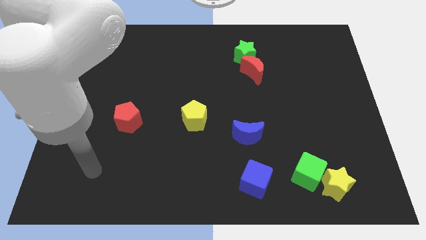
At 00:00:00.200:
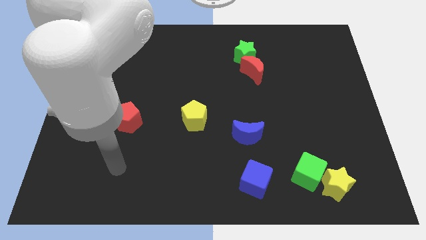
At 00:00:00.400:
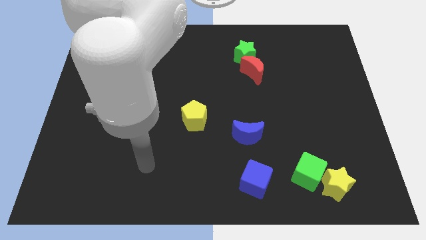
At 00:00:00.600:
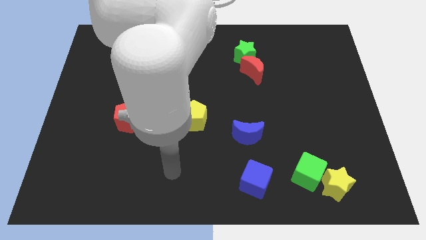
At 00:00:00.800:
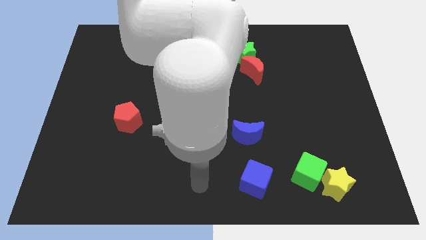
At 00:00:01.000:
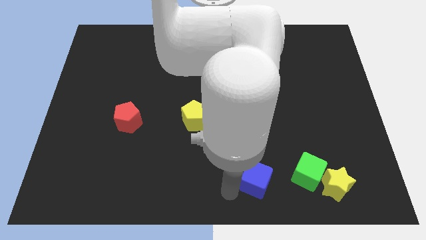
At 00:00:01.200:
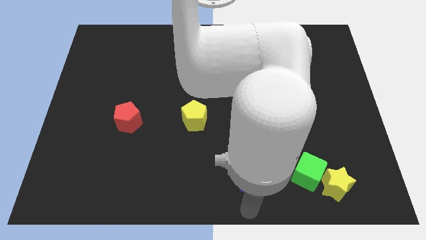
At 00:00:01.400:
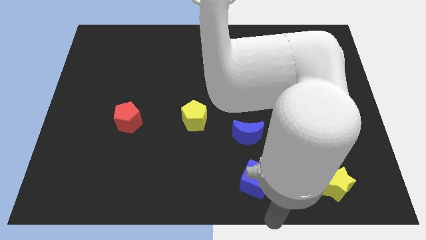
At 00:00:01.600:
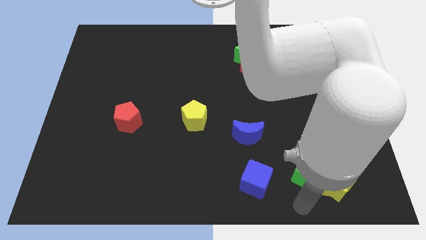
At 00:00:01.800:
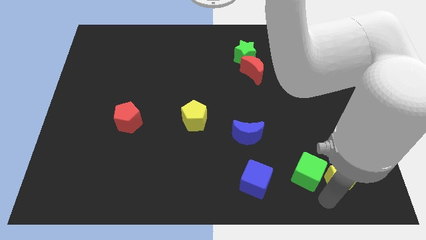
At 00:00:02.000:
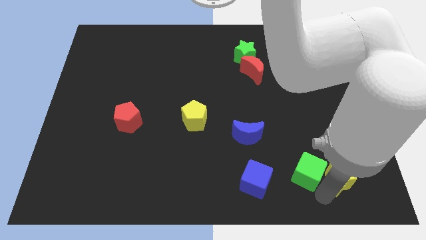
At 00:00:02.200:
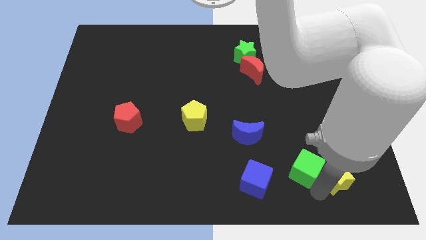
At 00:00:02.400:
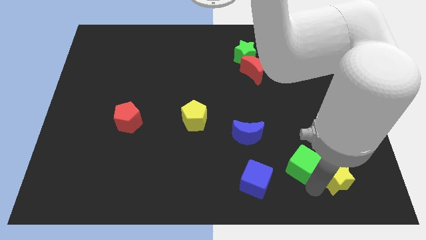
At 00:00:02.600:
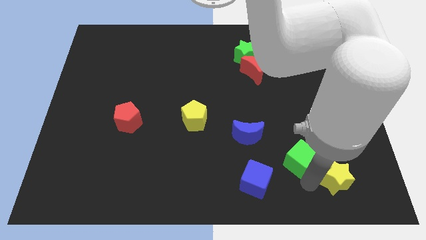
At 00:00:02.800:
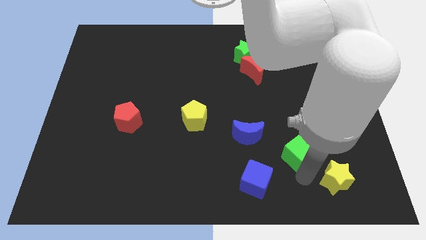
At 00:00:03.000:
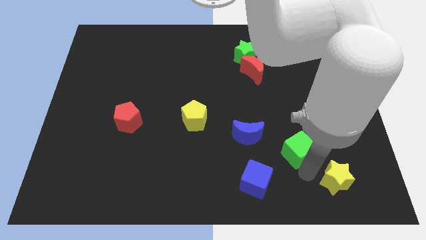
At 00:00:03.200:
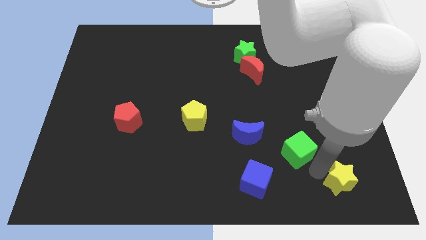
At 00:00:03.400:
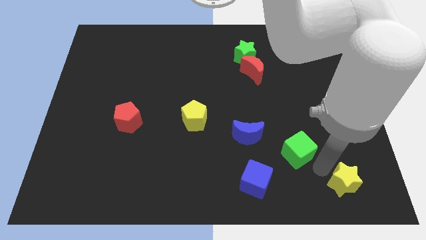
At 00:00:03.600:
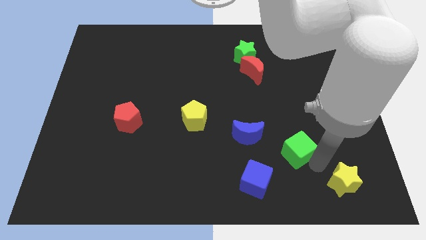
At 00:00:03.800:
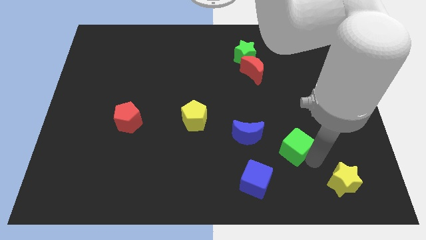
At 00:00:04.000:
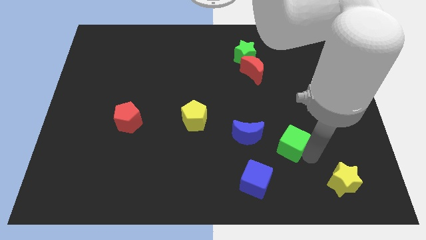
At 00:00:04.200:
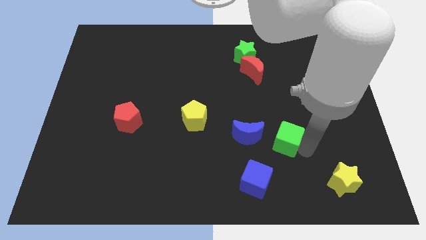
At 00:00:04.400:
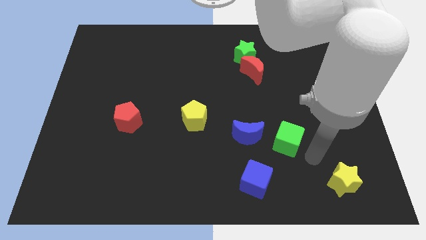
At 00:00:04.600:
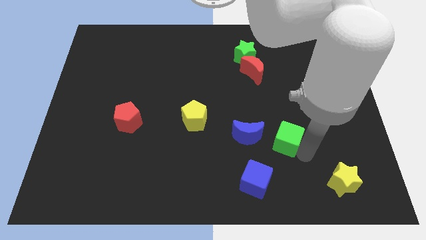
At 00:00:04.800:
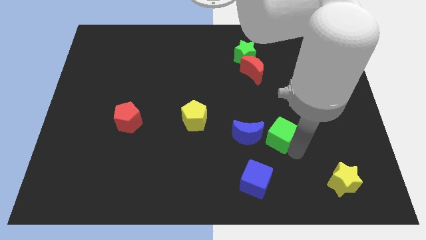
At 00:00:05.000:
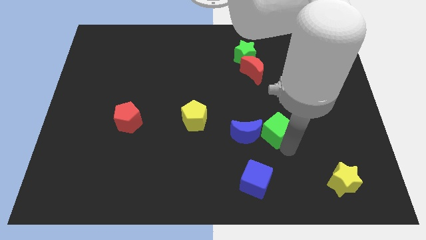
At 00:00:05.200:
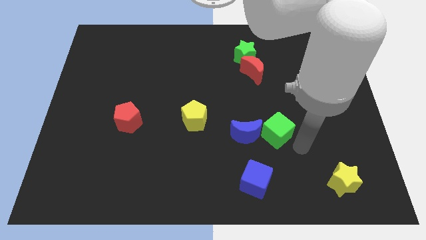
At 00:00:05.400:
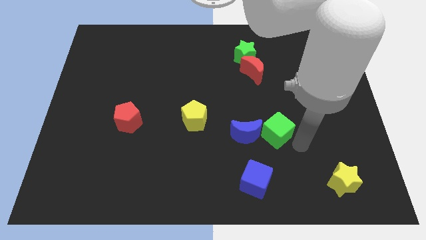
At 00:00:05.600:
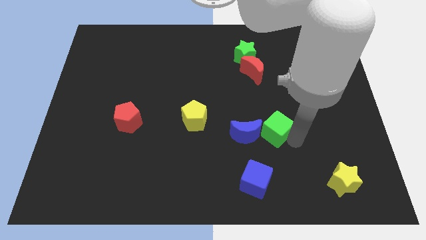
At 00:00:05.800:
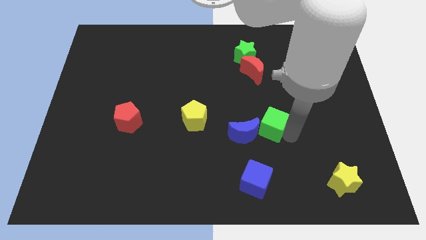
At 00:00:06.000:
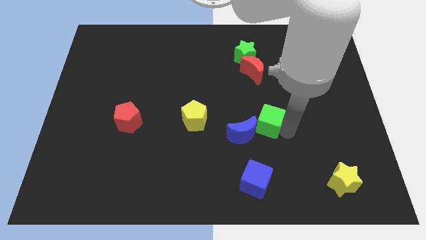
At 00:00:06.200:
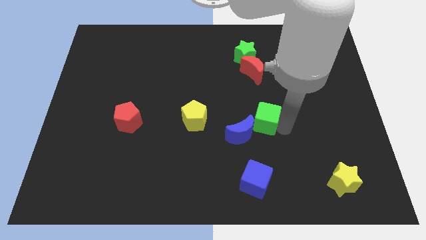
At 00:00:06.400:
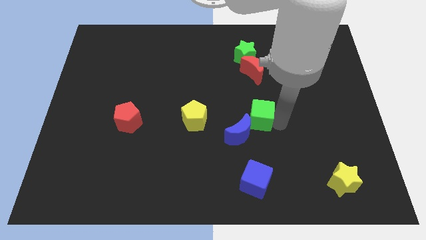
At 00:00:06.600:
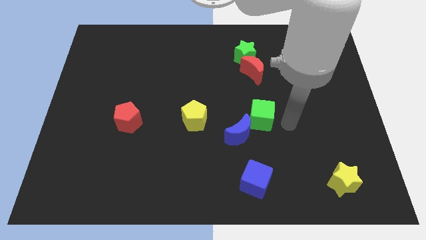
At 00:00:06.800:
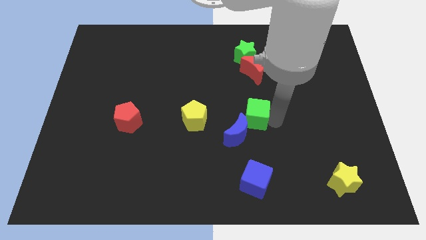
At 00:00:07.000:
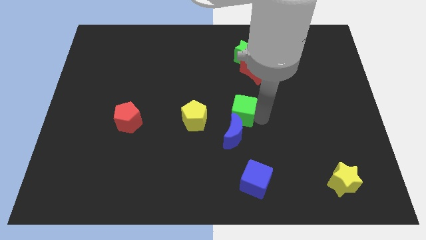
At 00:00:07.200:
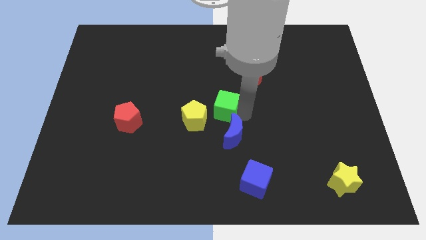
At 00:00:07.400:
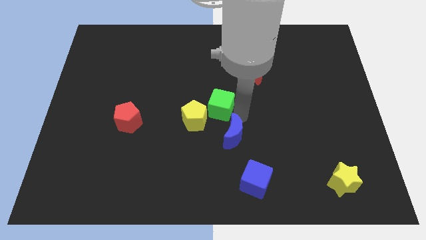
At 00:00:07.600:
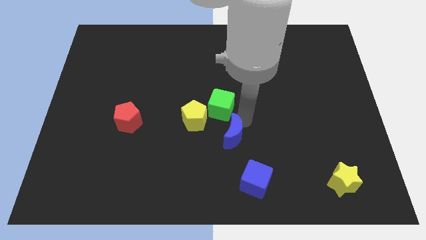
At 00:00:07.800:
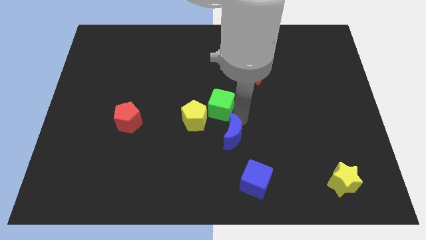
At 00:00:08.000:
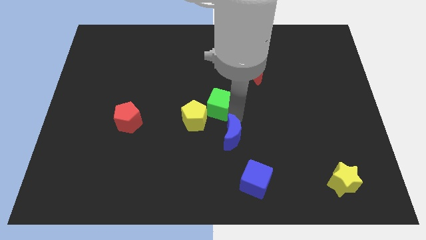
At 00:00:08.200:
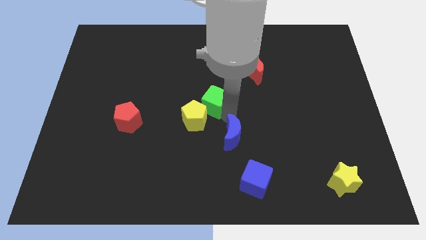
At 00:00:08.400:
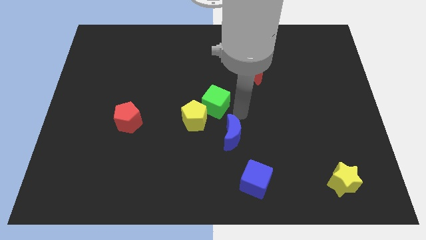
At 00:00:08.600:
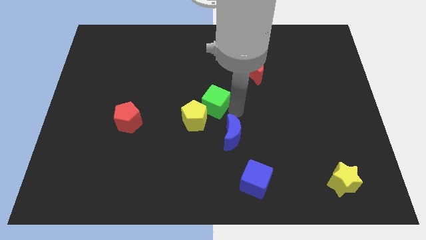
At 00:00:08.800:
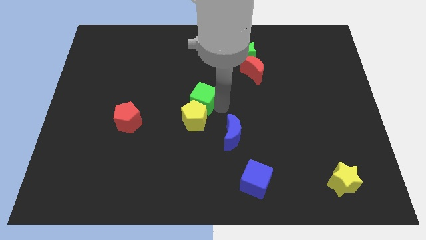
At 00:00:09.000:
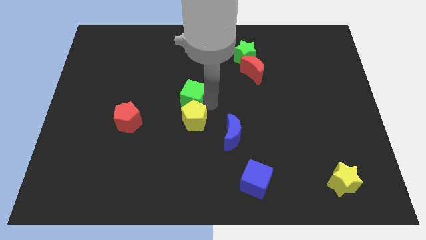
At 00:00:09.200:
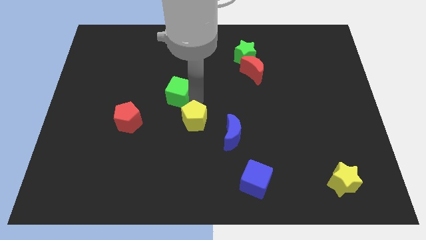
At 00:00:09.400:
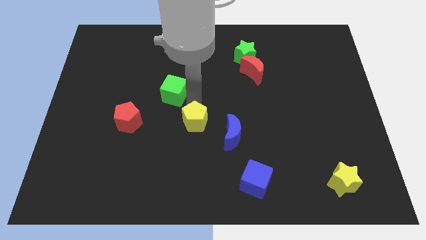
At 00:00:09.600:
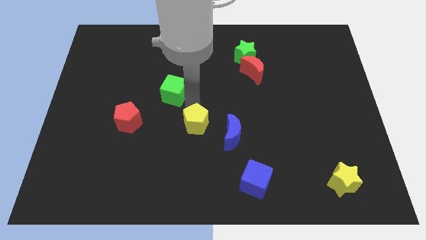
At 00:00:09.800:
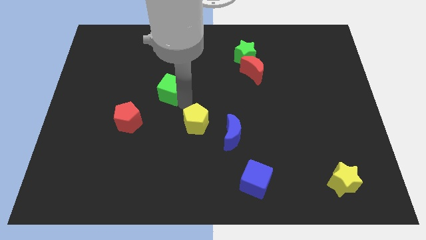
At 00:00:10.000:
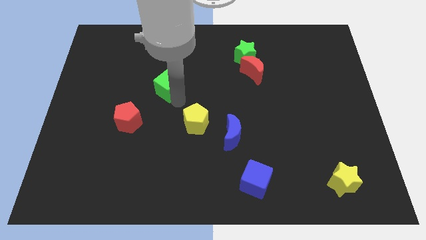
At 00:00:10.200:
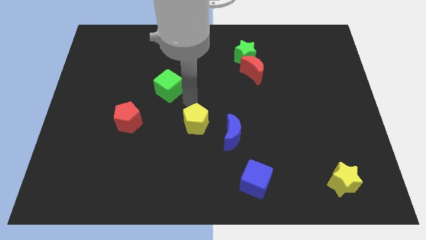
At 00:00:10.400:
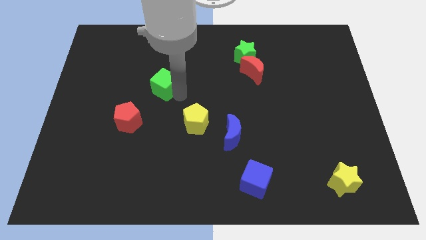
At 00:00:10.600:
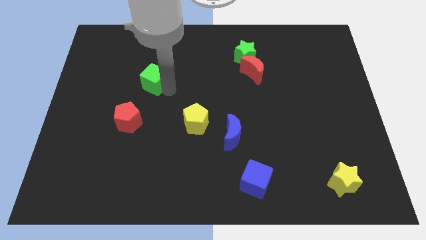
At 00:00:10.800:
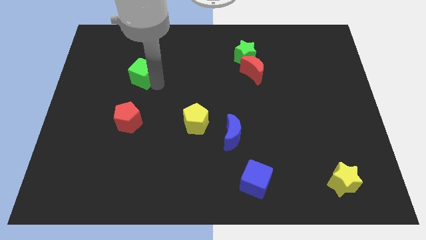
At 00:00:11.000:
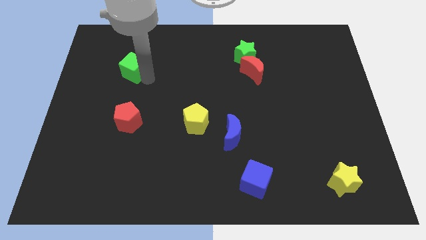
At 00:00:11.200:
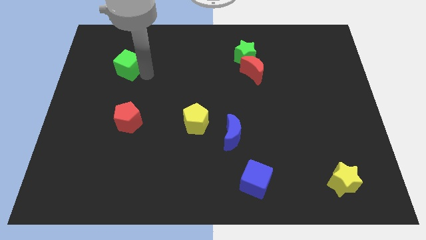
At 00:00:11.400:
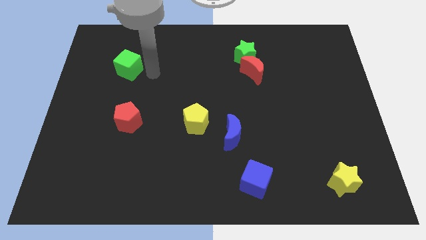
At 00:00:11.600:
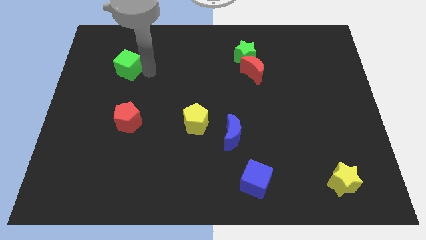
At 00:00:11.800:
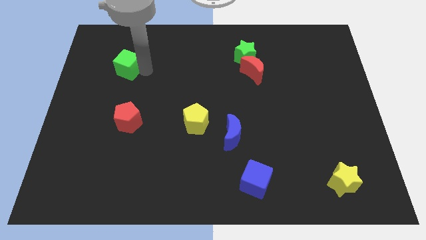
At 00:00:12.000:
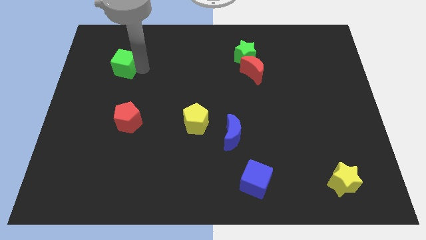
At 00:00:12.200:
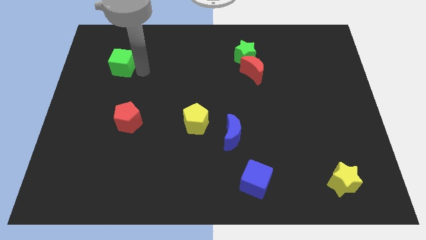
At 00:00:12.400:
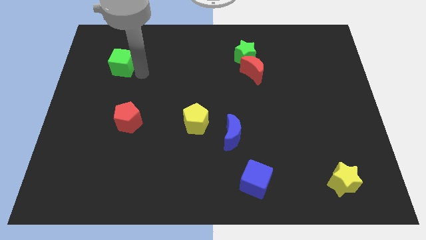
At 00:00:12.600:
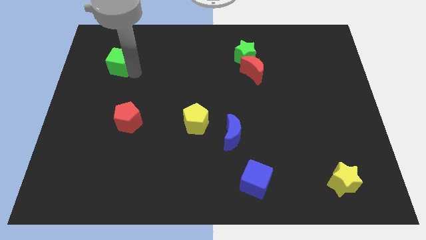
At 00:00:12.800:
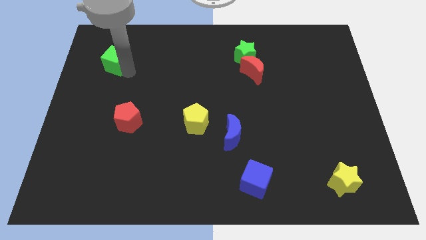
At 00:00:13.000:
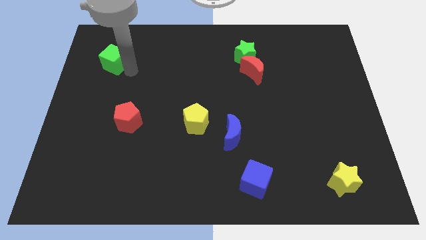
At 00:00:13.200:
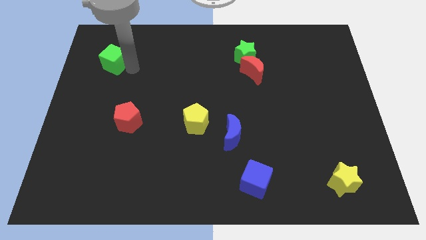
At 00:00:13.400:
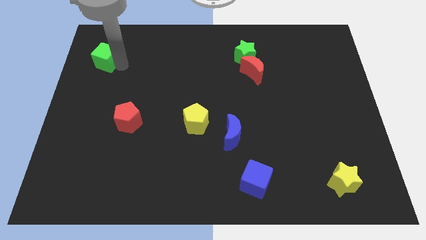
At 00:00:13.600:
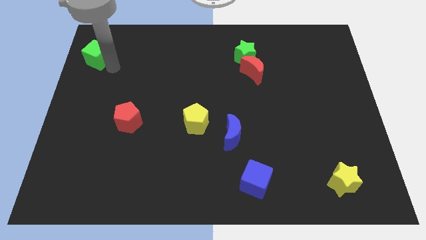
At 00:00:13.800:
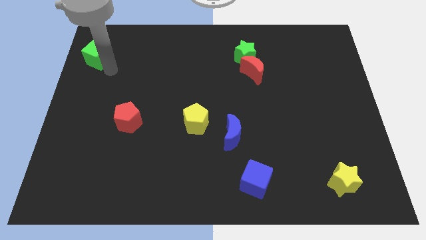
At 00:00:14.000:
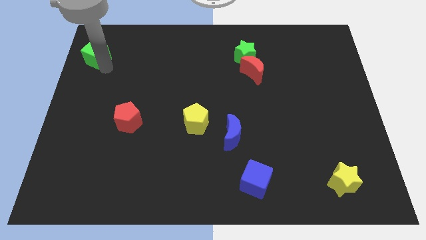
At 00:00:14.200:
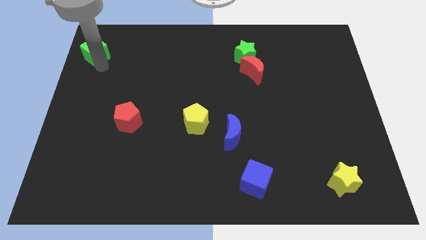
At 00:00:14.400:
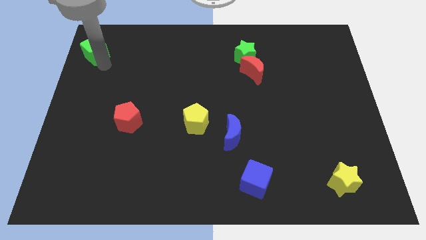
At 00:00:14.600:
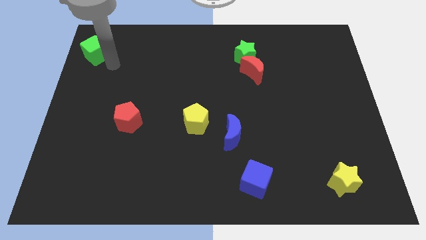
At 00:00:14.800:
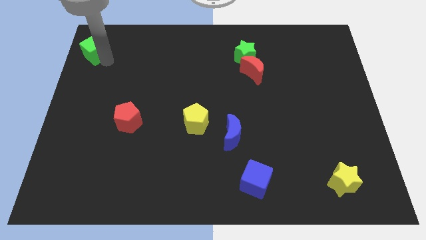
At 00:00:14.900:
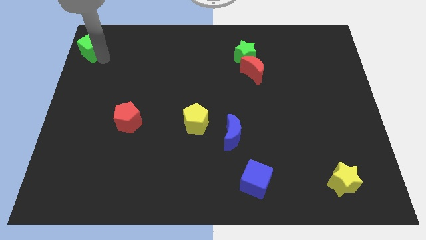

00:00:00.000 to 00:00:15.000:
slide the green cube to the top left
